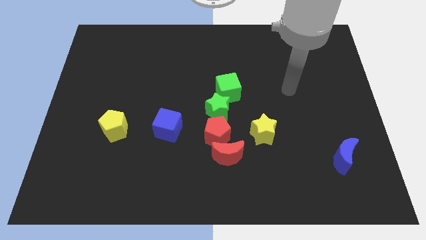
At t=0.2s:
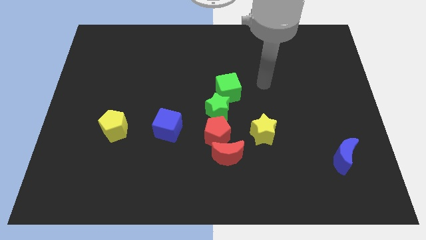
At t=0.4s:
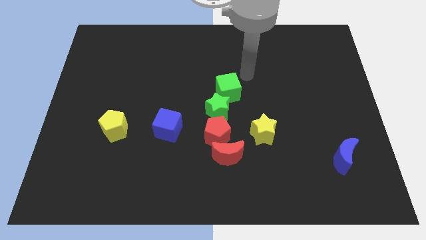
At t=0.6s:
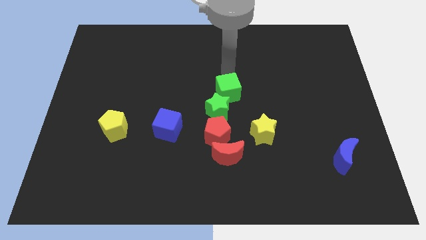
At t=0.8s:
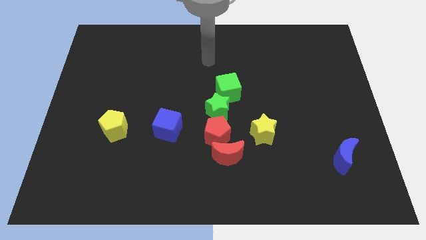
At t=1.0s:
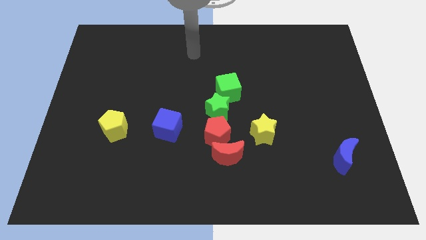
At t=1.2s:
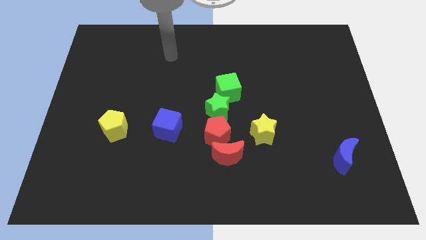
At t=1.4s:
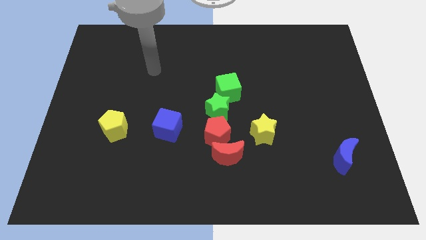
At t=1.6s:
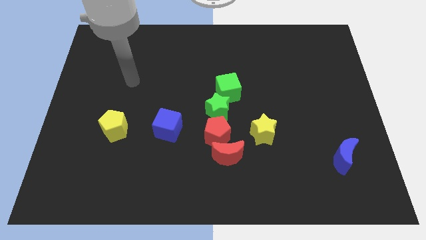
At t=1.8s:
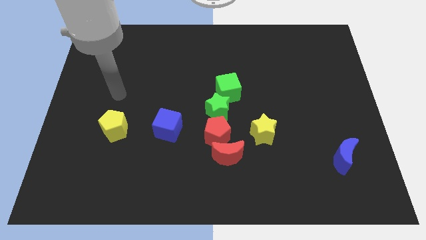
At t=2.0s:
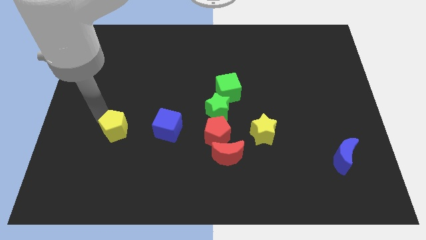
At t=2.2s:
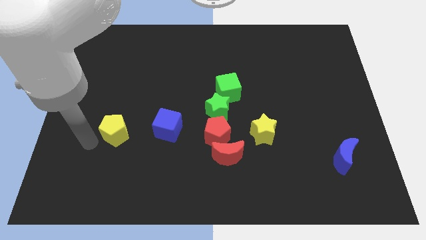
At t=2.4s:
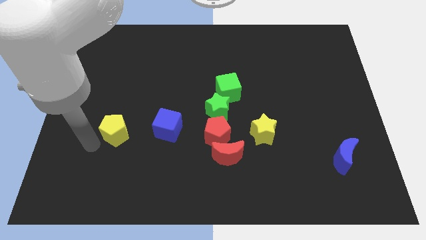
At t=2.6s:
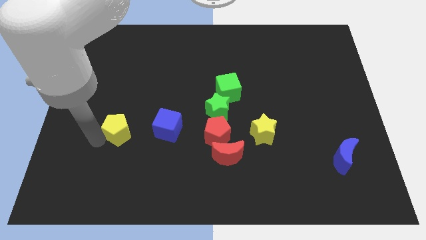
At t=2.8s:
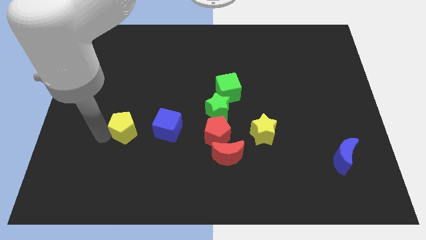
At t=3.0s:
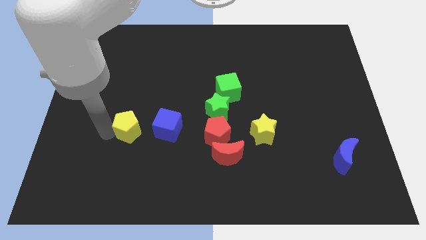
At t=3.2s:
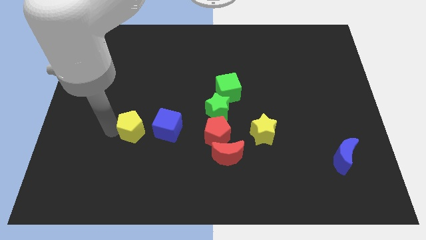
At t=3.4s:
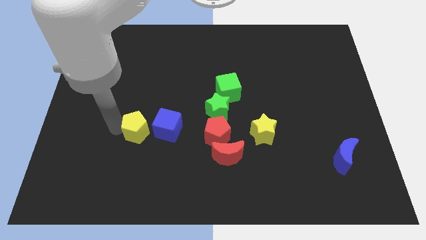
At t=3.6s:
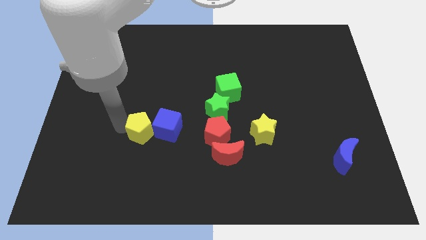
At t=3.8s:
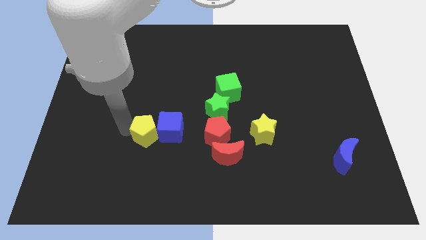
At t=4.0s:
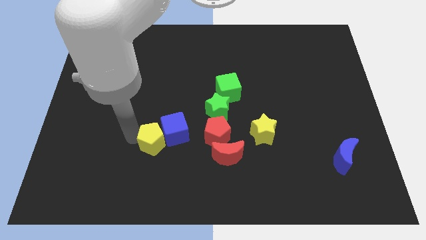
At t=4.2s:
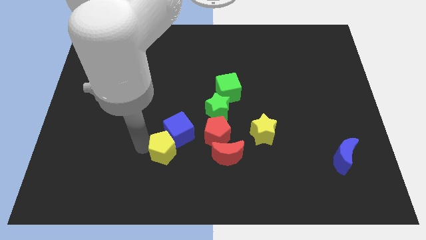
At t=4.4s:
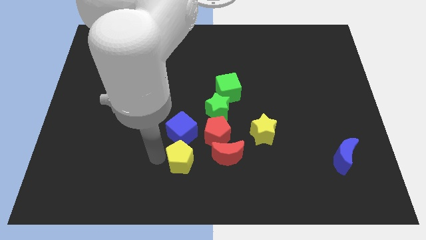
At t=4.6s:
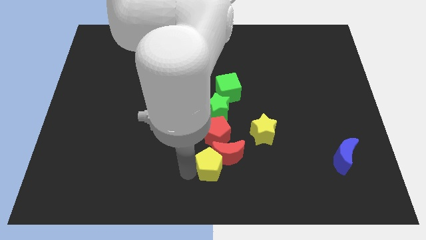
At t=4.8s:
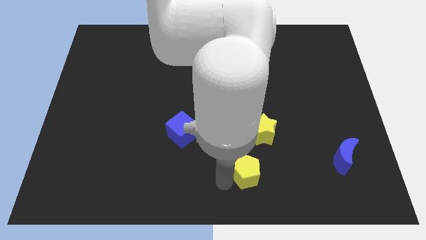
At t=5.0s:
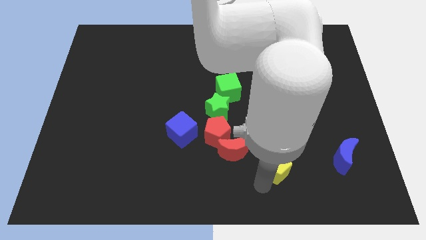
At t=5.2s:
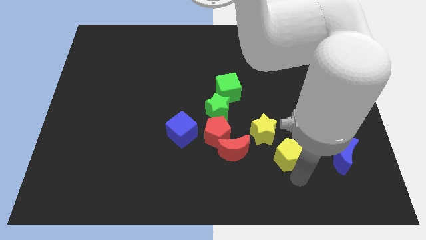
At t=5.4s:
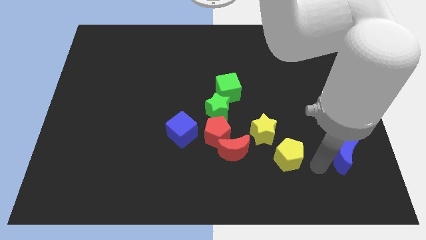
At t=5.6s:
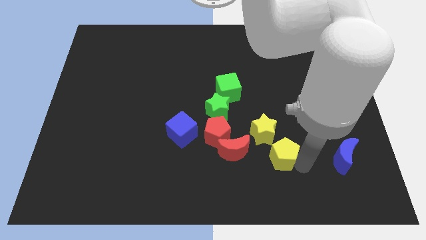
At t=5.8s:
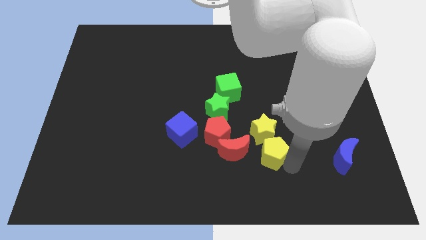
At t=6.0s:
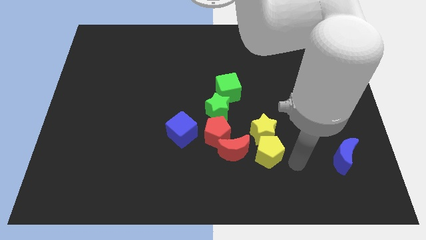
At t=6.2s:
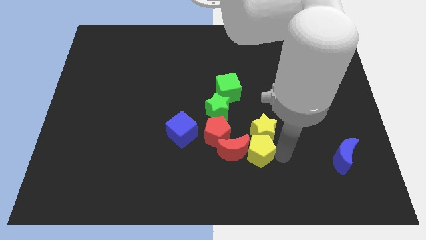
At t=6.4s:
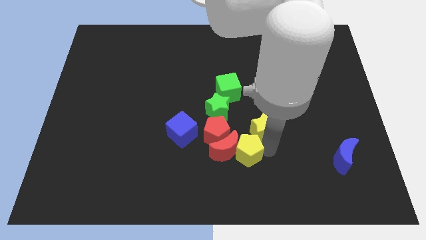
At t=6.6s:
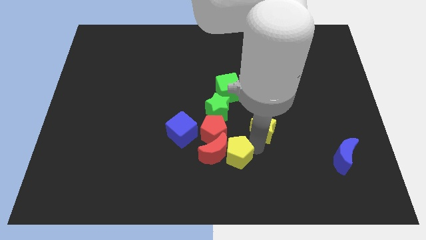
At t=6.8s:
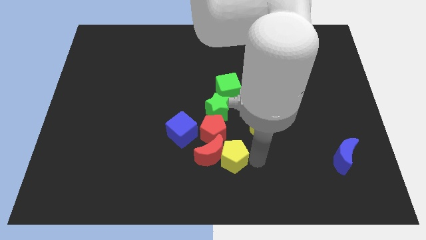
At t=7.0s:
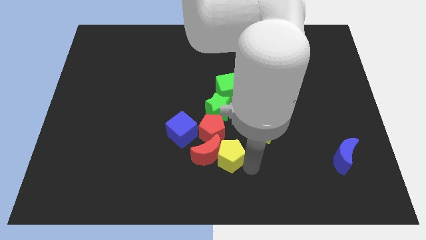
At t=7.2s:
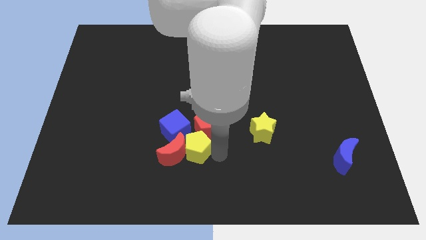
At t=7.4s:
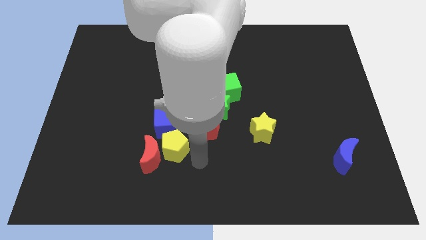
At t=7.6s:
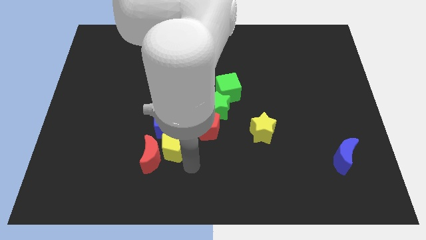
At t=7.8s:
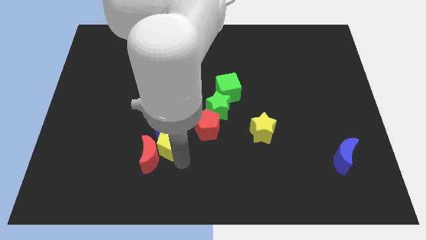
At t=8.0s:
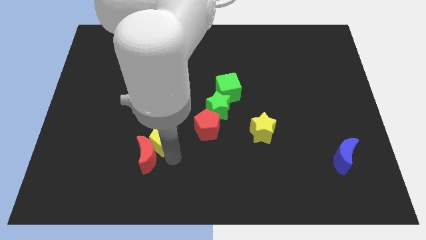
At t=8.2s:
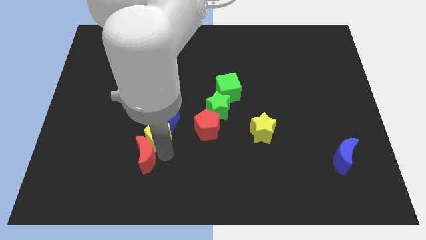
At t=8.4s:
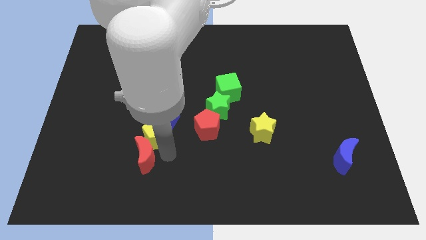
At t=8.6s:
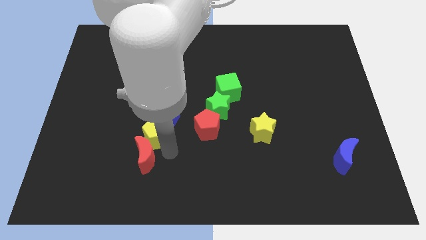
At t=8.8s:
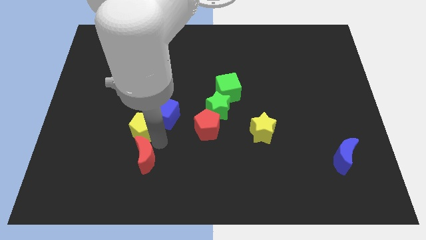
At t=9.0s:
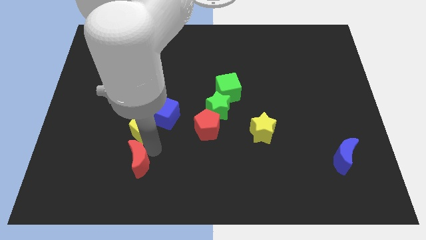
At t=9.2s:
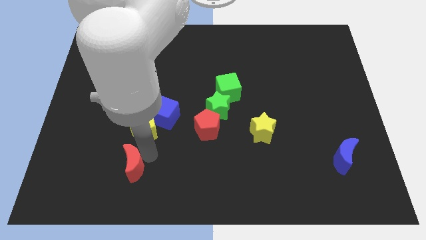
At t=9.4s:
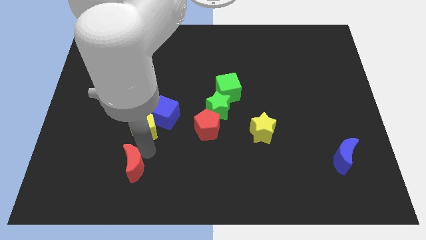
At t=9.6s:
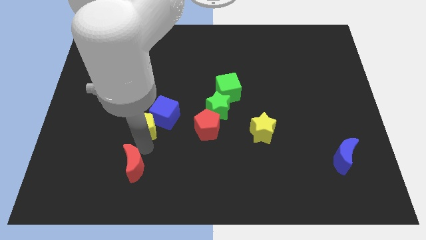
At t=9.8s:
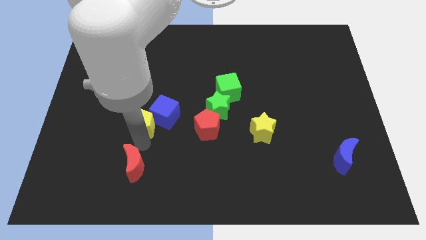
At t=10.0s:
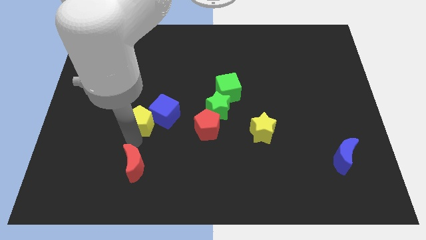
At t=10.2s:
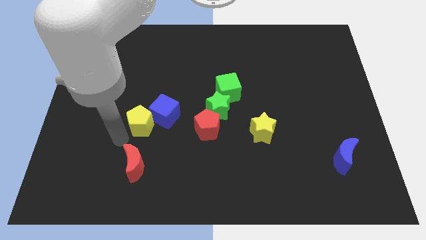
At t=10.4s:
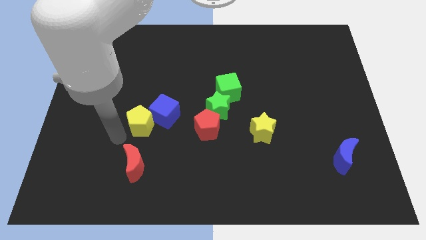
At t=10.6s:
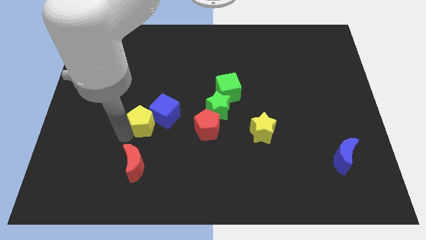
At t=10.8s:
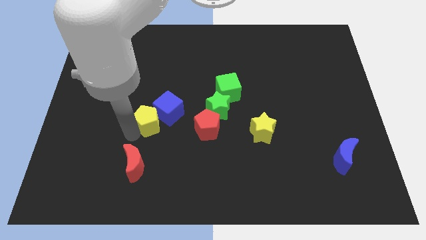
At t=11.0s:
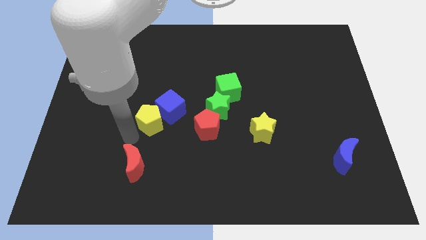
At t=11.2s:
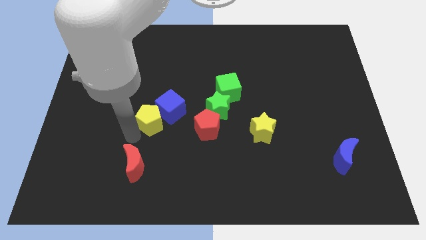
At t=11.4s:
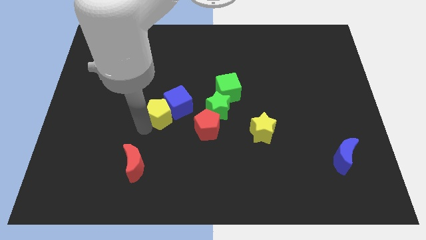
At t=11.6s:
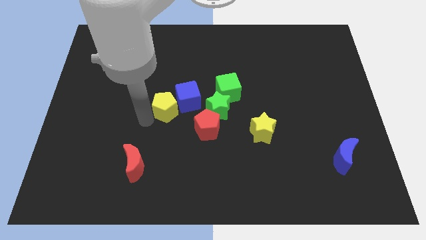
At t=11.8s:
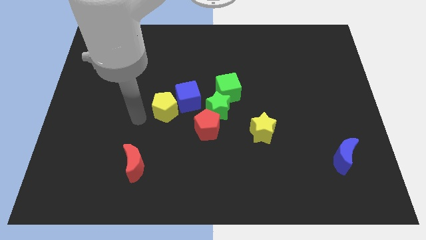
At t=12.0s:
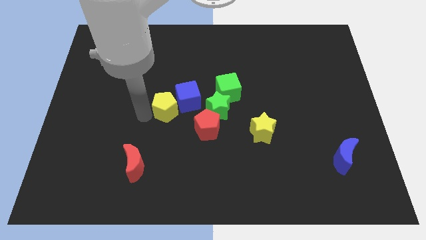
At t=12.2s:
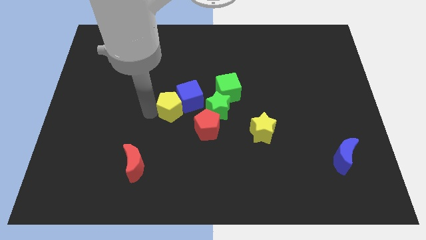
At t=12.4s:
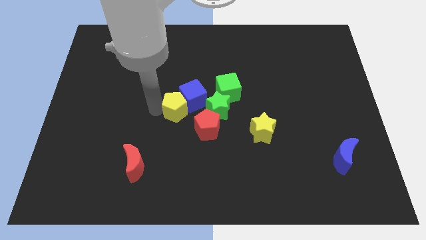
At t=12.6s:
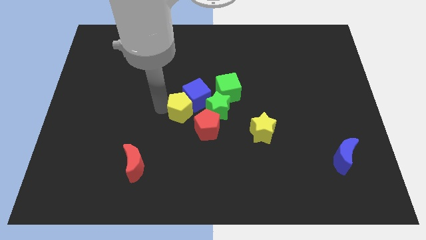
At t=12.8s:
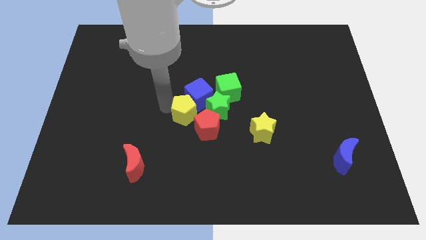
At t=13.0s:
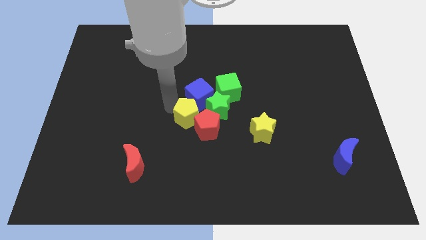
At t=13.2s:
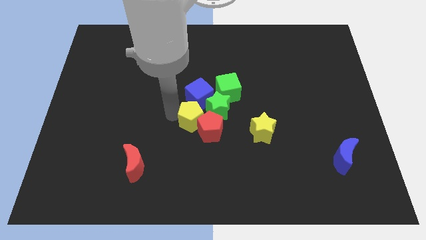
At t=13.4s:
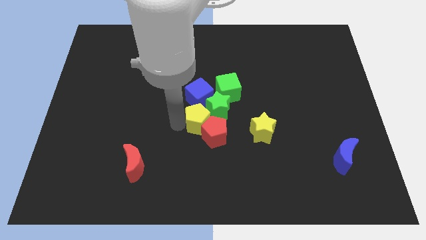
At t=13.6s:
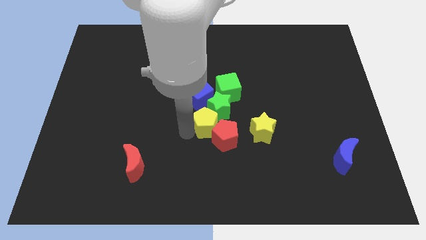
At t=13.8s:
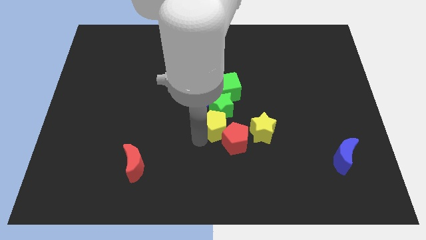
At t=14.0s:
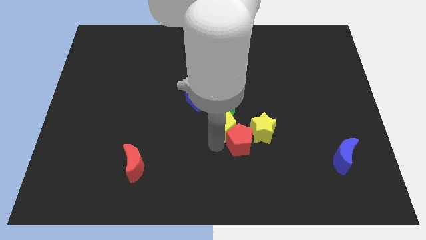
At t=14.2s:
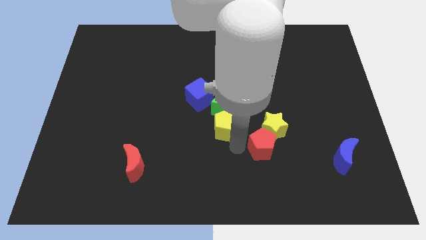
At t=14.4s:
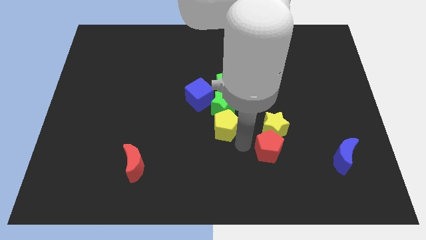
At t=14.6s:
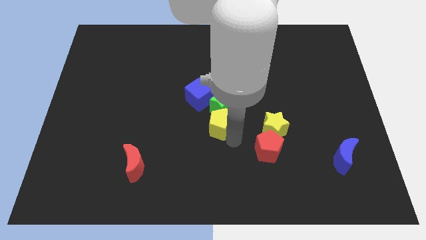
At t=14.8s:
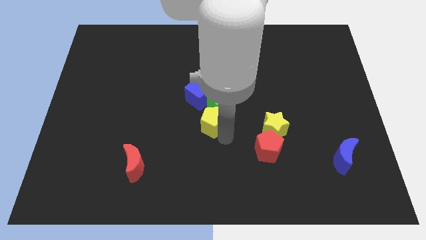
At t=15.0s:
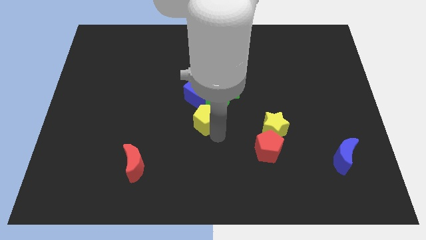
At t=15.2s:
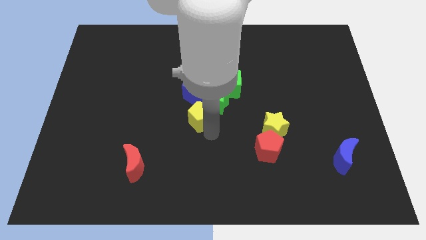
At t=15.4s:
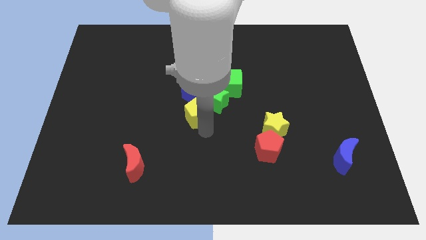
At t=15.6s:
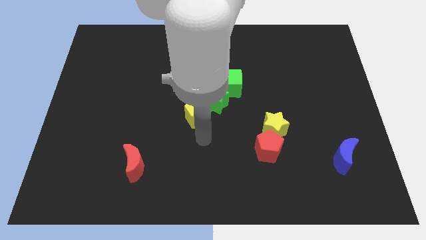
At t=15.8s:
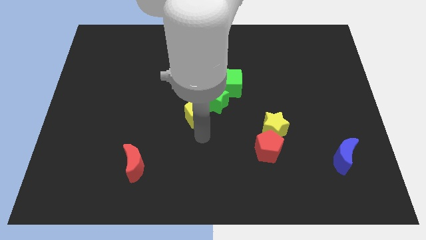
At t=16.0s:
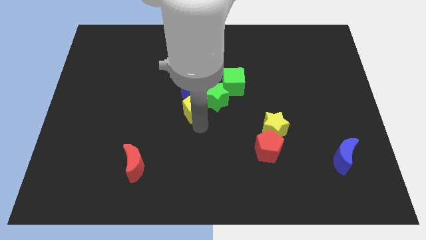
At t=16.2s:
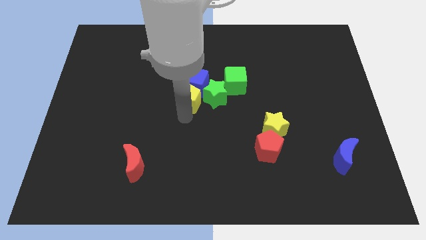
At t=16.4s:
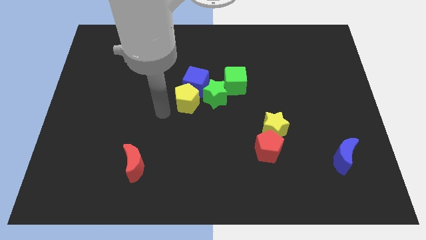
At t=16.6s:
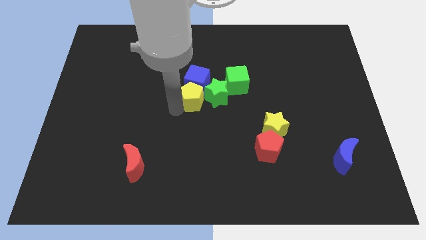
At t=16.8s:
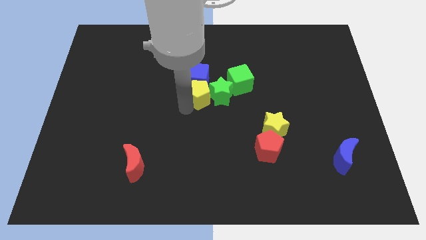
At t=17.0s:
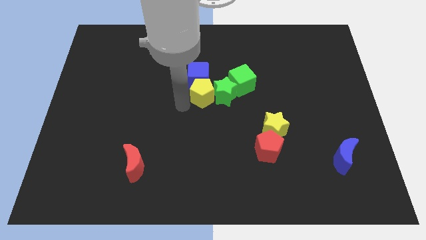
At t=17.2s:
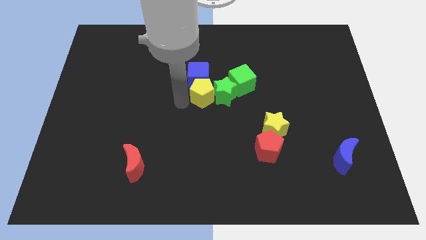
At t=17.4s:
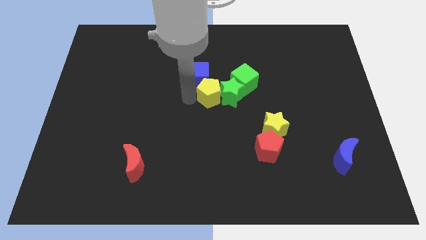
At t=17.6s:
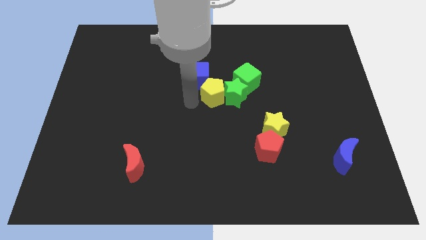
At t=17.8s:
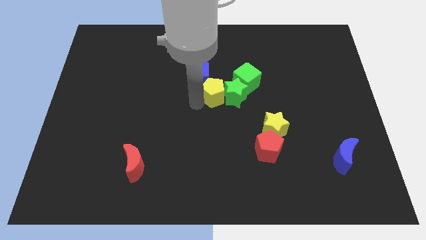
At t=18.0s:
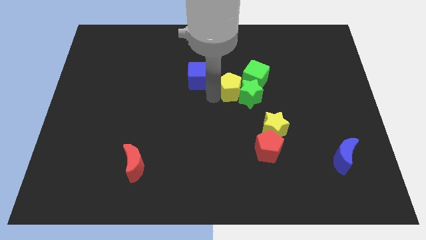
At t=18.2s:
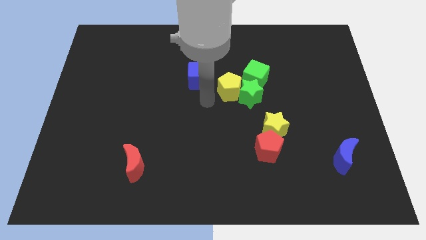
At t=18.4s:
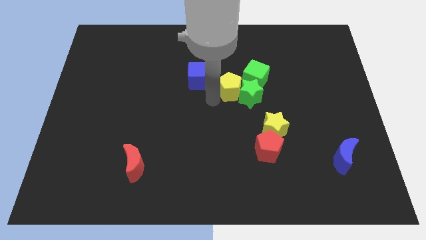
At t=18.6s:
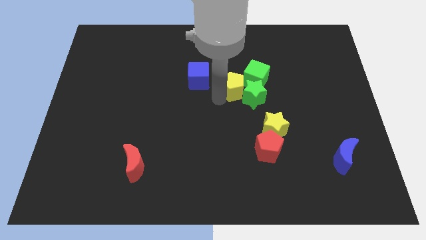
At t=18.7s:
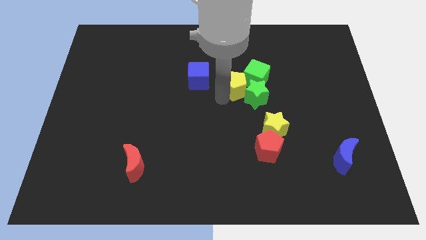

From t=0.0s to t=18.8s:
put the yellow pentagon close to the green cube
